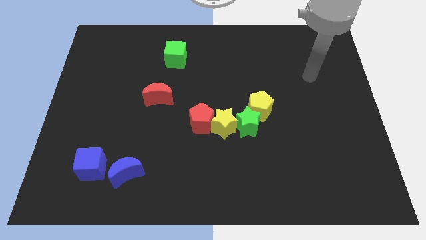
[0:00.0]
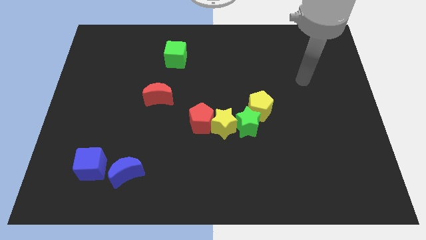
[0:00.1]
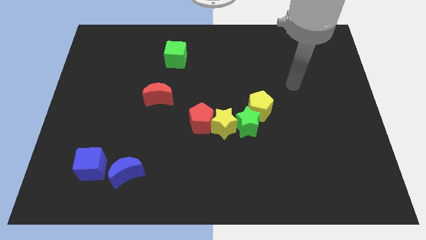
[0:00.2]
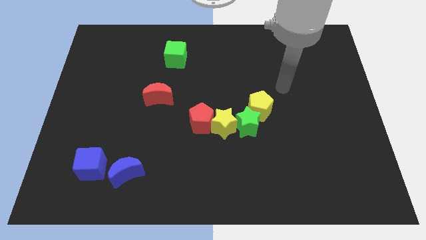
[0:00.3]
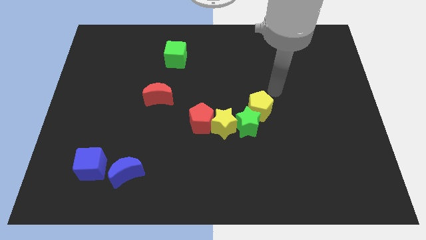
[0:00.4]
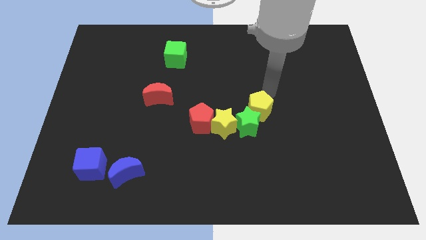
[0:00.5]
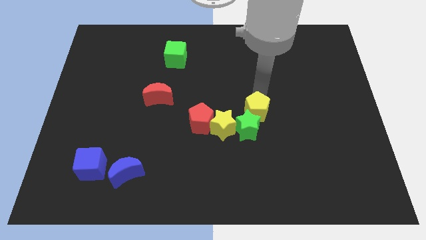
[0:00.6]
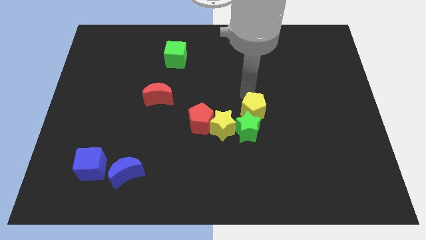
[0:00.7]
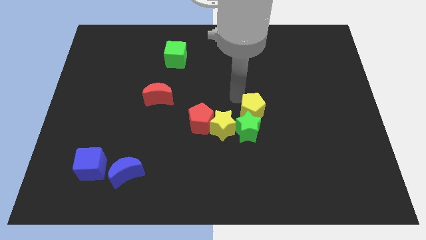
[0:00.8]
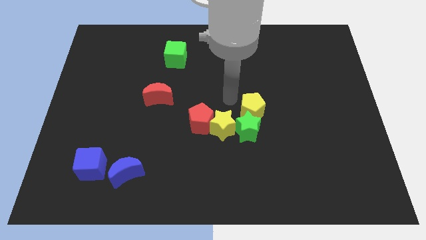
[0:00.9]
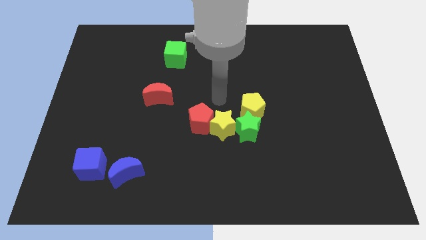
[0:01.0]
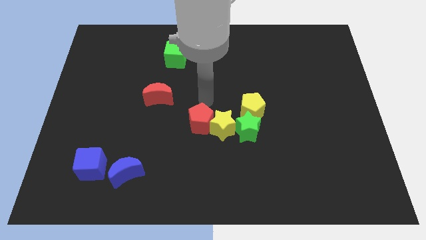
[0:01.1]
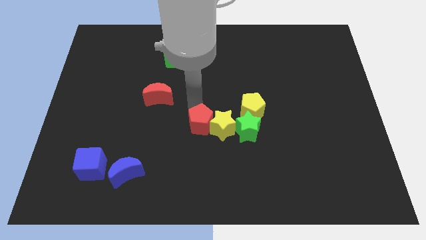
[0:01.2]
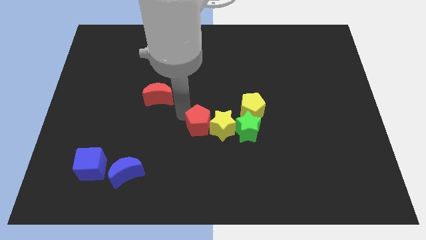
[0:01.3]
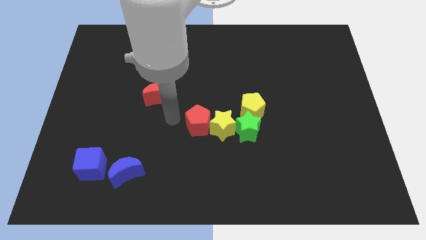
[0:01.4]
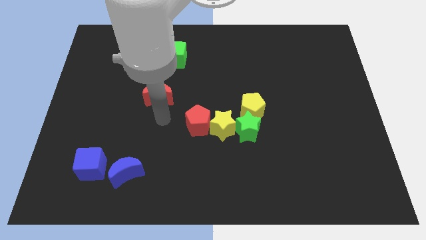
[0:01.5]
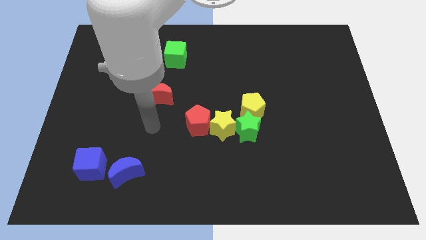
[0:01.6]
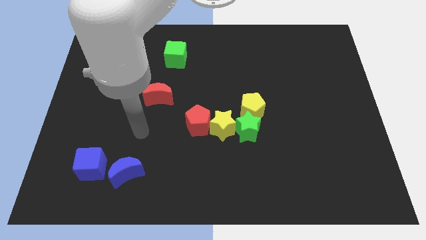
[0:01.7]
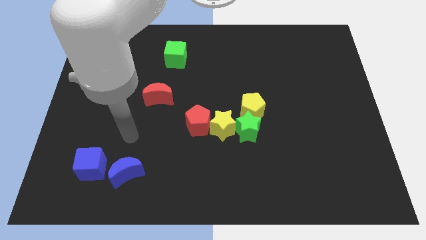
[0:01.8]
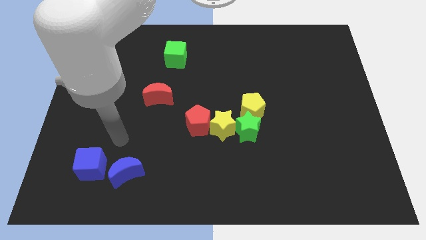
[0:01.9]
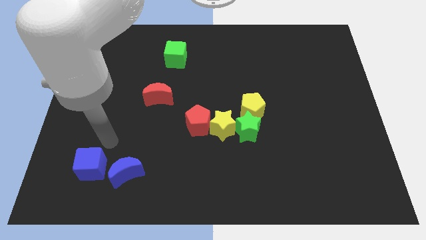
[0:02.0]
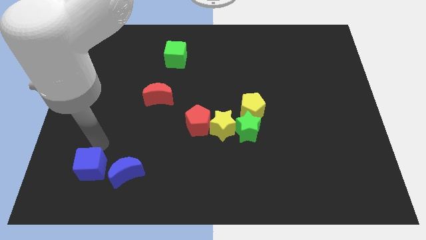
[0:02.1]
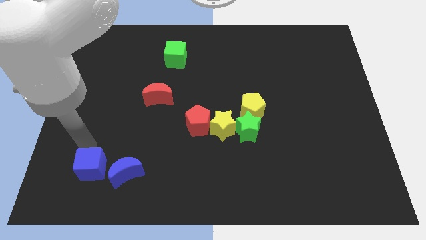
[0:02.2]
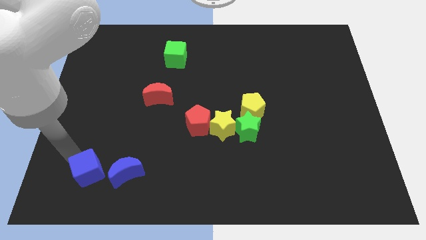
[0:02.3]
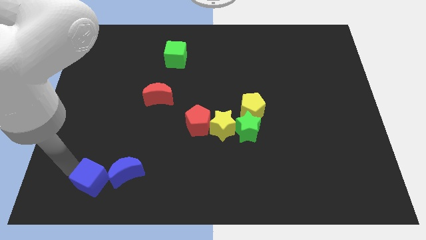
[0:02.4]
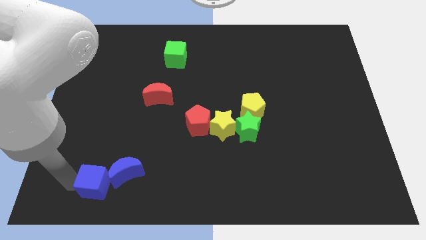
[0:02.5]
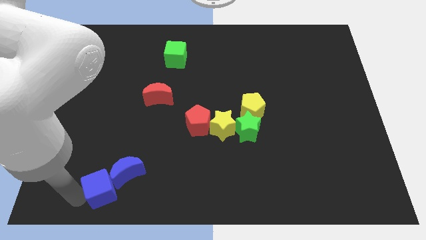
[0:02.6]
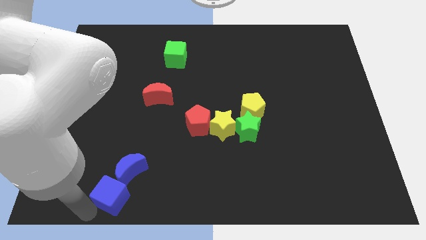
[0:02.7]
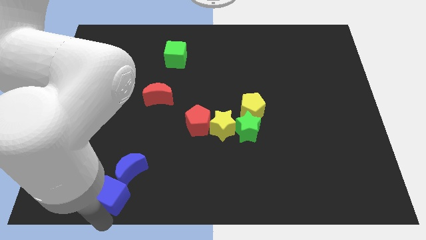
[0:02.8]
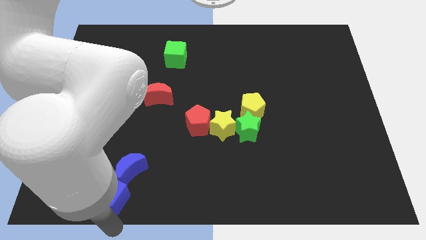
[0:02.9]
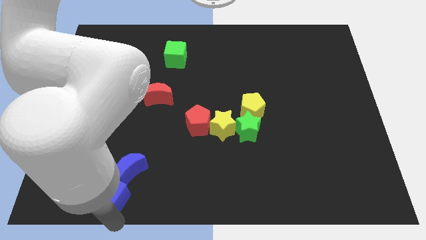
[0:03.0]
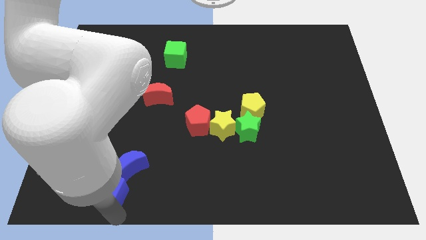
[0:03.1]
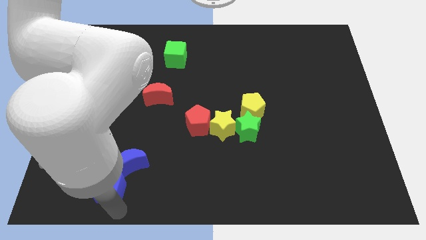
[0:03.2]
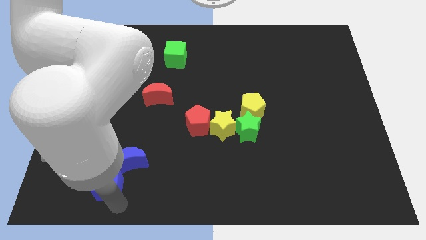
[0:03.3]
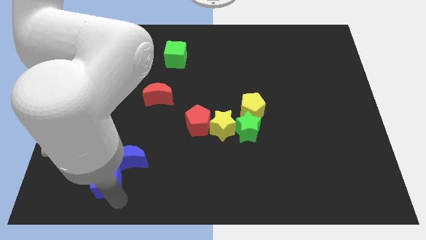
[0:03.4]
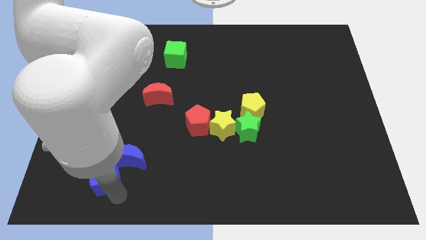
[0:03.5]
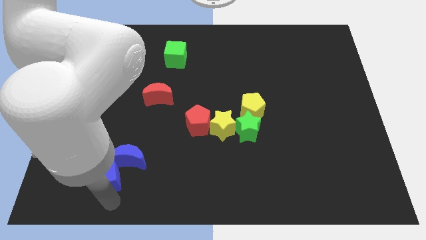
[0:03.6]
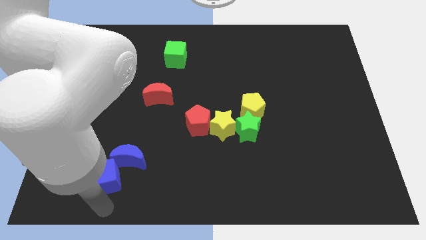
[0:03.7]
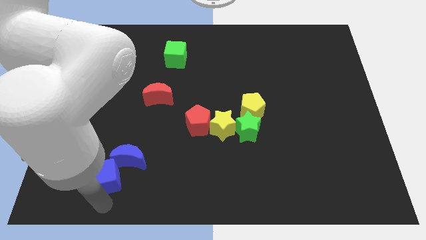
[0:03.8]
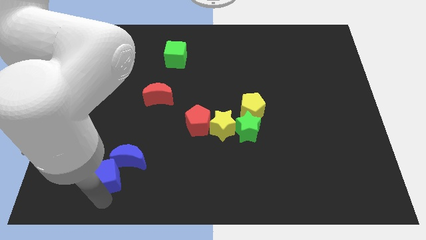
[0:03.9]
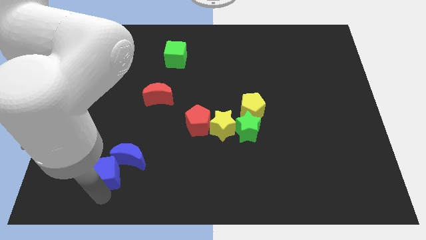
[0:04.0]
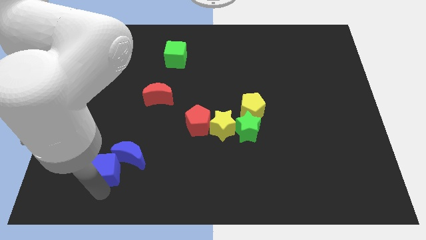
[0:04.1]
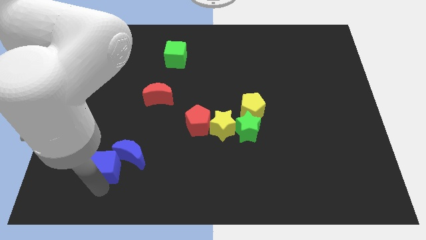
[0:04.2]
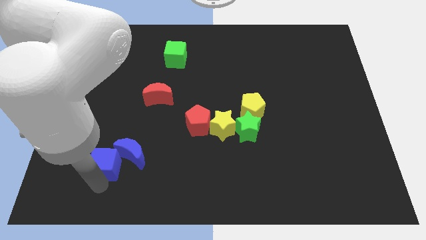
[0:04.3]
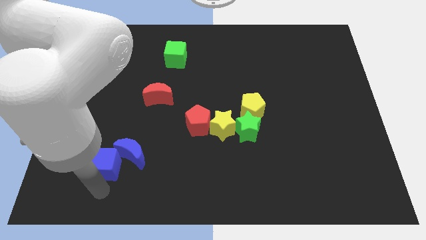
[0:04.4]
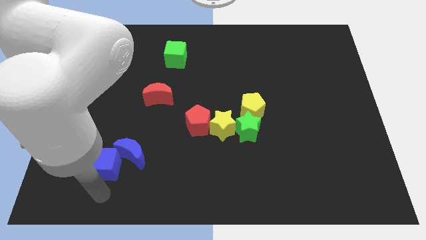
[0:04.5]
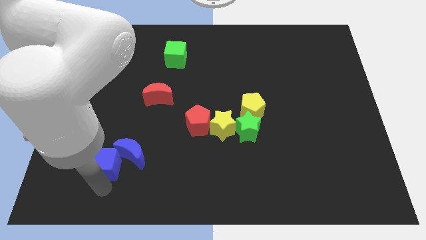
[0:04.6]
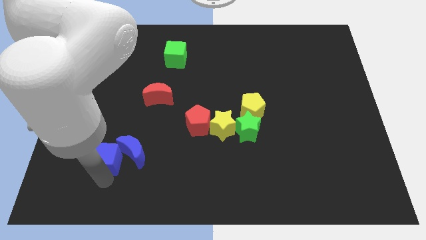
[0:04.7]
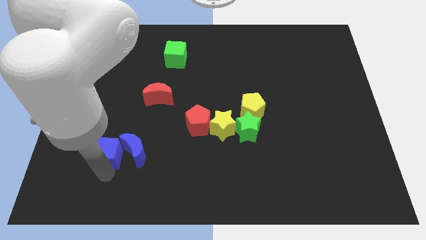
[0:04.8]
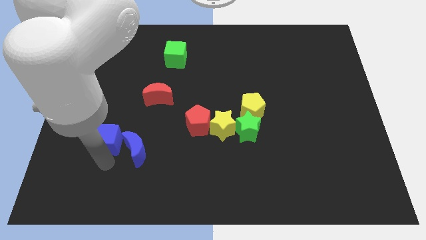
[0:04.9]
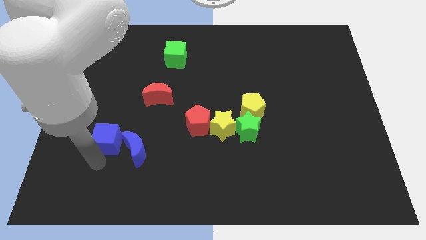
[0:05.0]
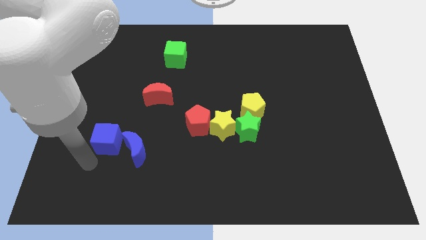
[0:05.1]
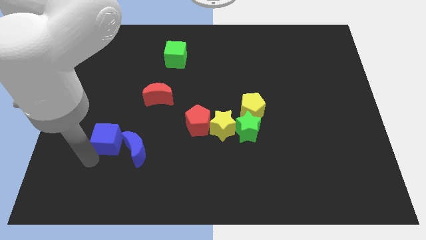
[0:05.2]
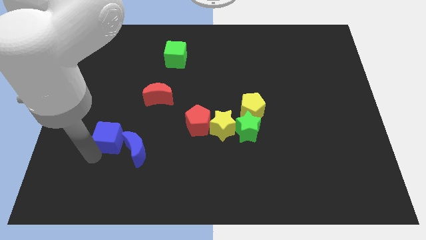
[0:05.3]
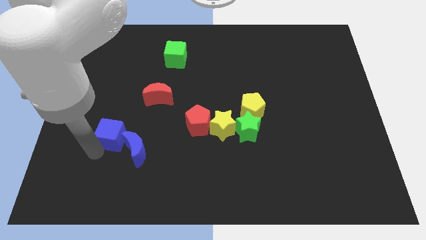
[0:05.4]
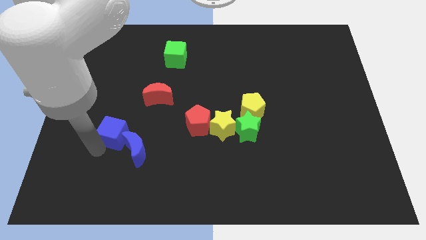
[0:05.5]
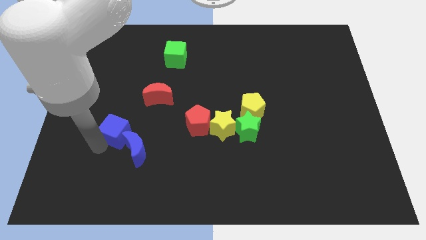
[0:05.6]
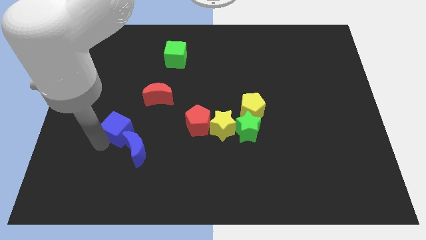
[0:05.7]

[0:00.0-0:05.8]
put the blue cube to the bottom left of the red moon

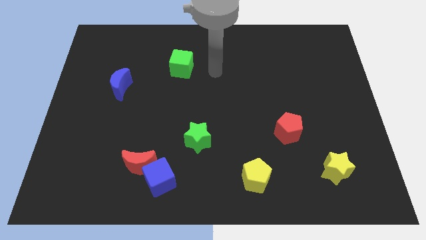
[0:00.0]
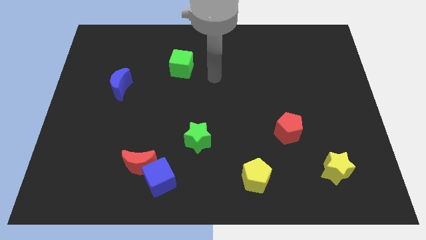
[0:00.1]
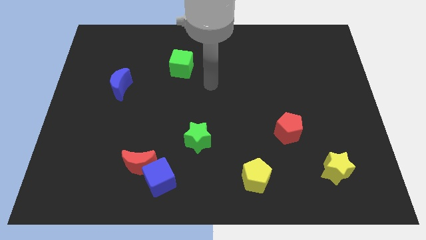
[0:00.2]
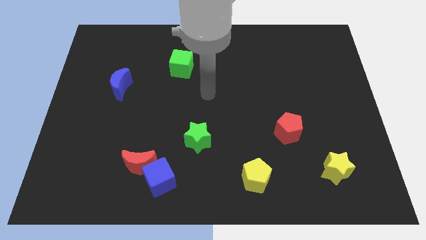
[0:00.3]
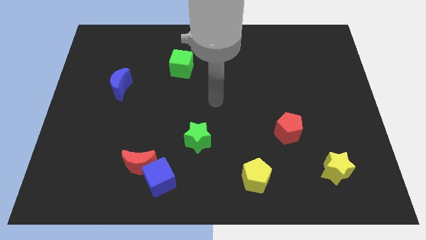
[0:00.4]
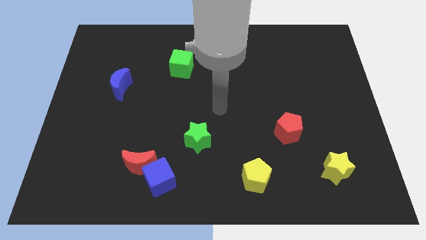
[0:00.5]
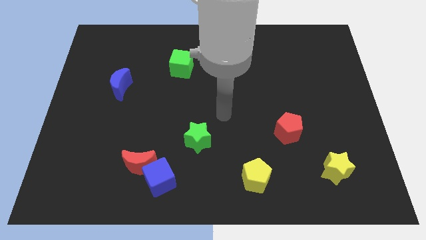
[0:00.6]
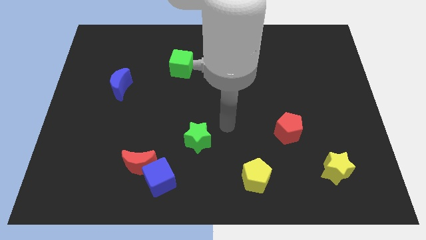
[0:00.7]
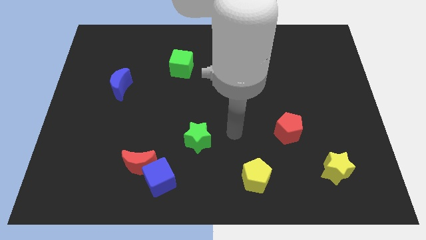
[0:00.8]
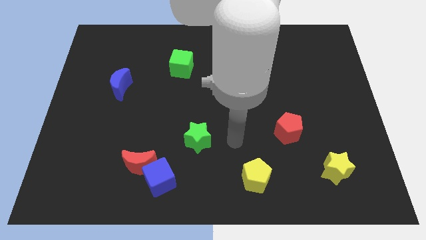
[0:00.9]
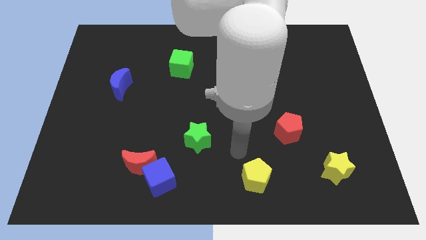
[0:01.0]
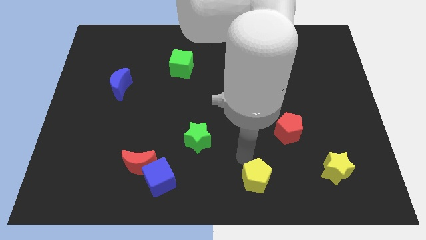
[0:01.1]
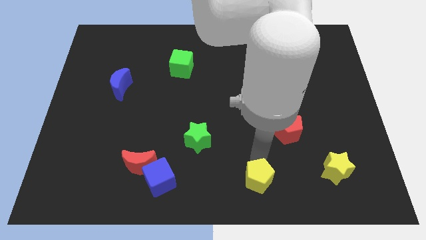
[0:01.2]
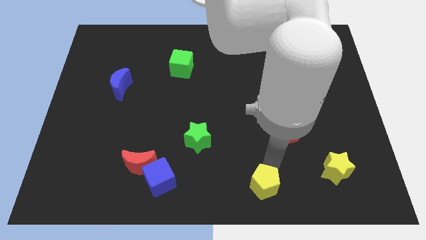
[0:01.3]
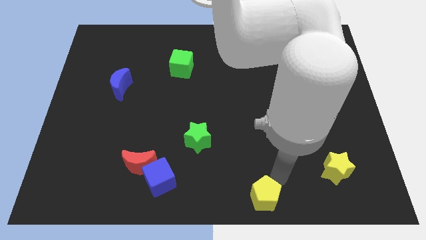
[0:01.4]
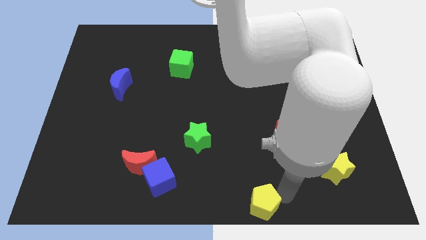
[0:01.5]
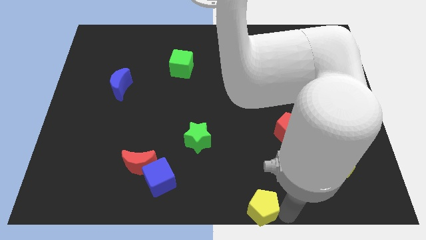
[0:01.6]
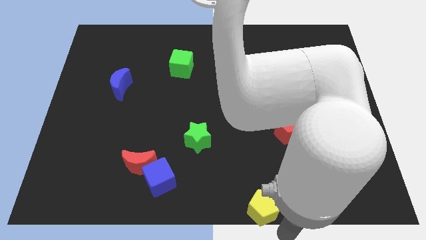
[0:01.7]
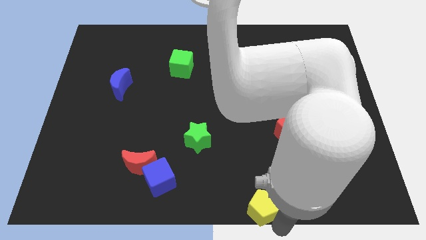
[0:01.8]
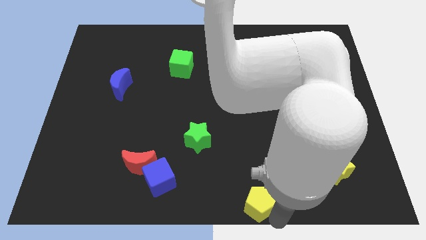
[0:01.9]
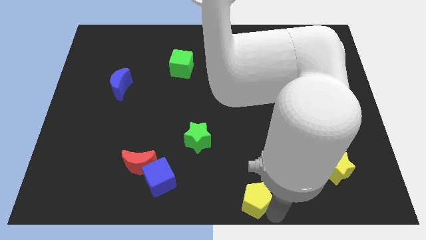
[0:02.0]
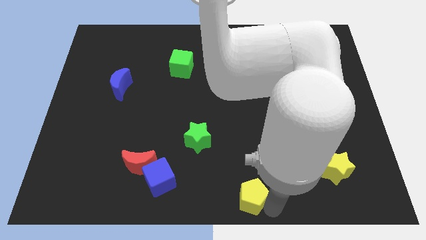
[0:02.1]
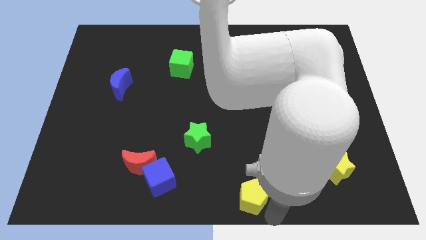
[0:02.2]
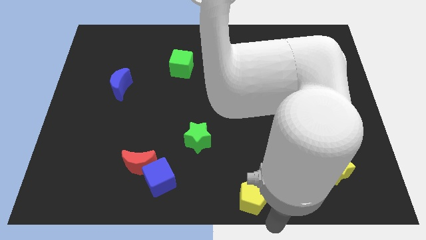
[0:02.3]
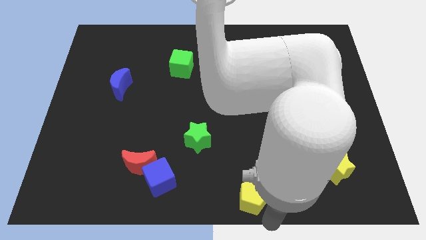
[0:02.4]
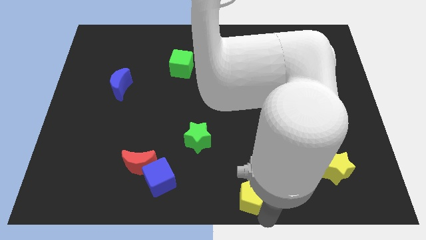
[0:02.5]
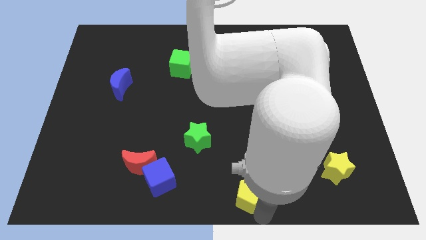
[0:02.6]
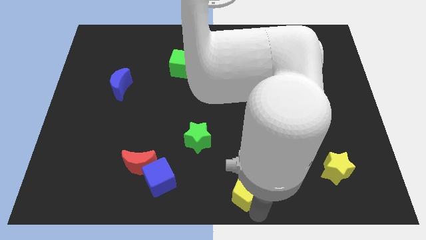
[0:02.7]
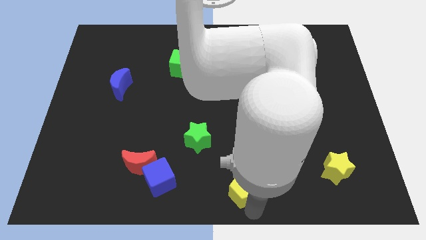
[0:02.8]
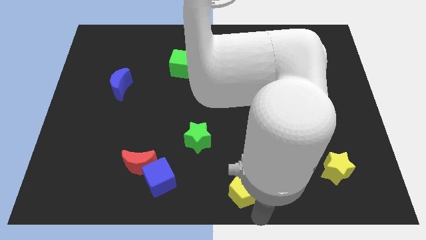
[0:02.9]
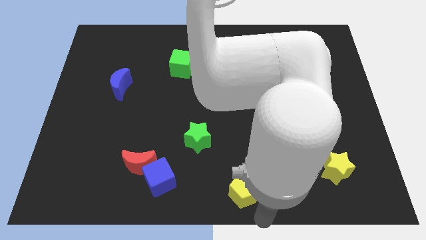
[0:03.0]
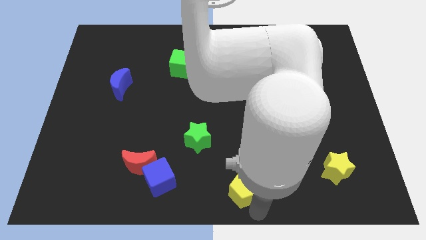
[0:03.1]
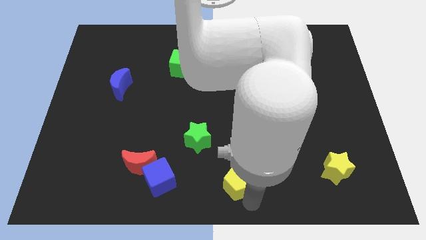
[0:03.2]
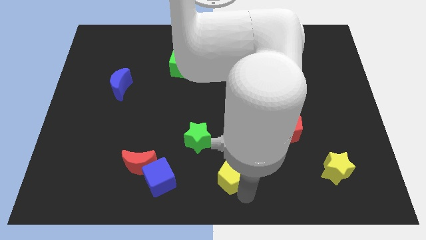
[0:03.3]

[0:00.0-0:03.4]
push the yellow pentagon diagonally down and to the right of the green star
